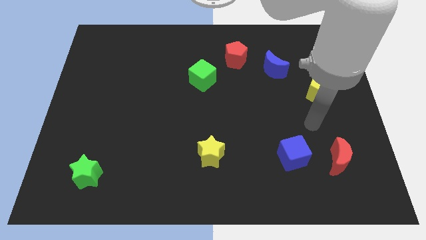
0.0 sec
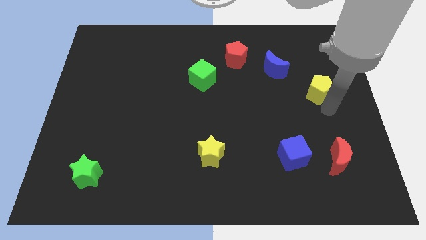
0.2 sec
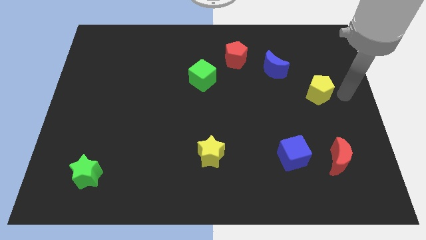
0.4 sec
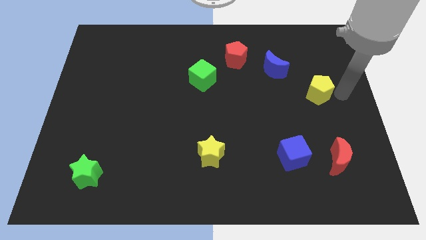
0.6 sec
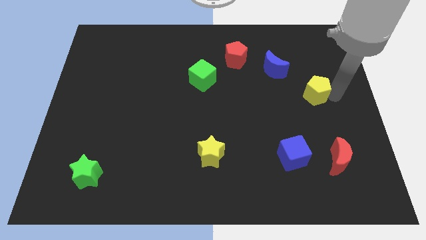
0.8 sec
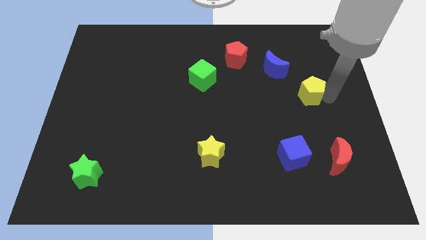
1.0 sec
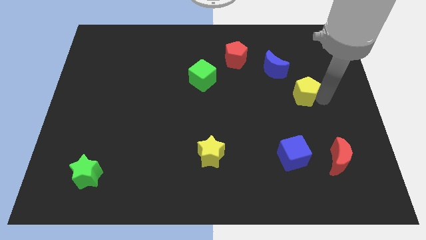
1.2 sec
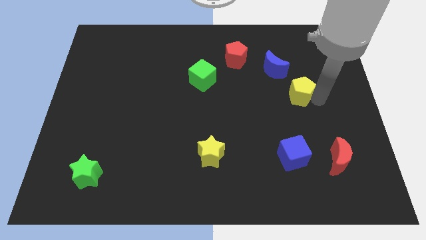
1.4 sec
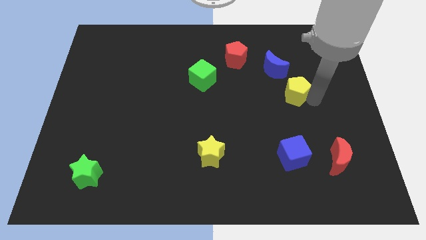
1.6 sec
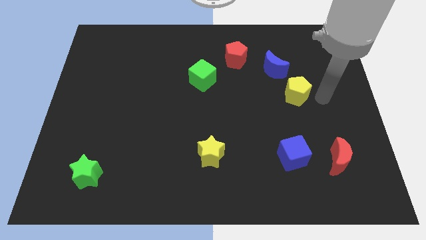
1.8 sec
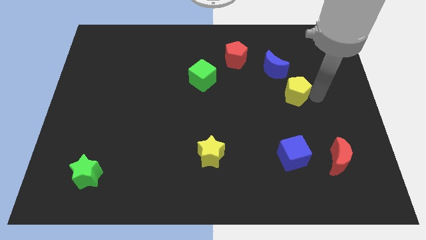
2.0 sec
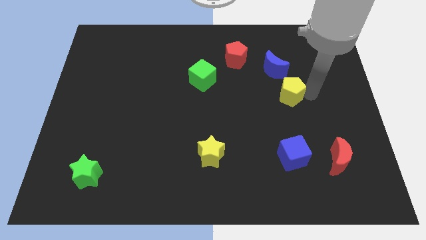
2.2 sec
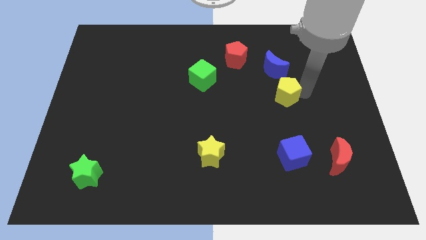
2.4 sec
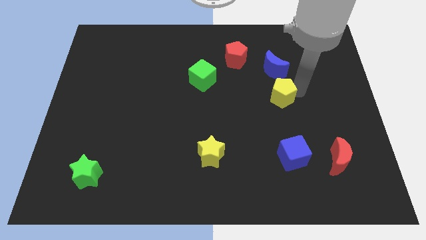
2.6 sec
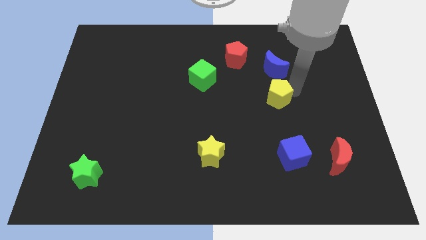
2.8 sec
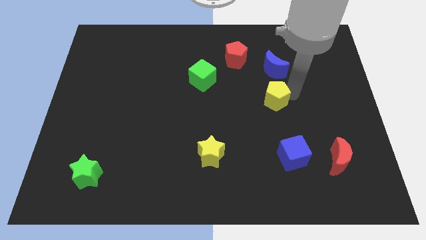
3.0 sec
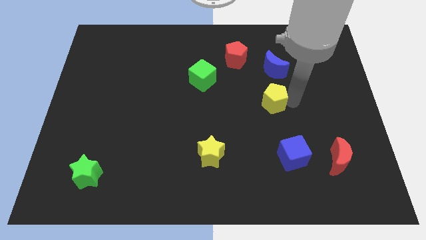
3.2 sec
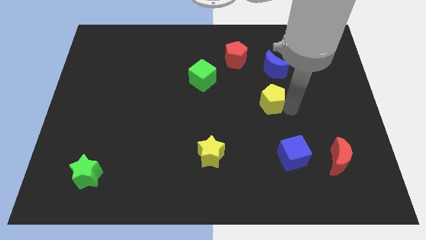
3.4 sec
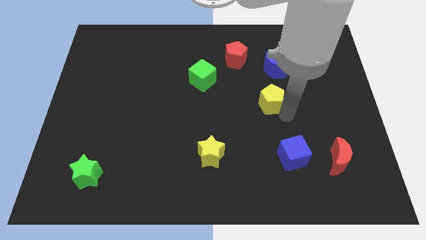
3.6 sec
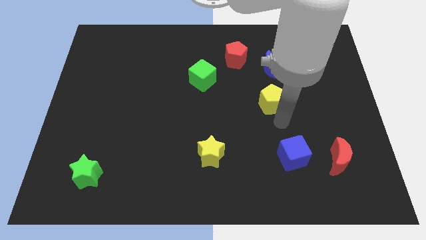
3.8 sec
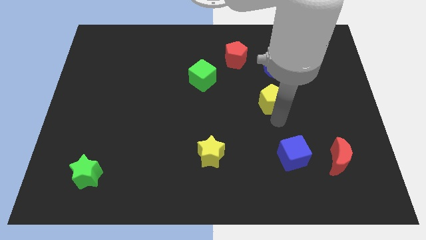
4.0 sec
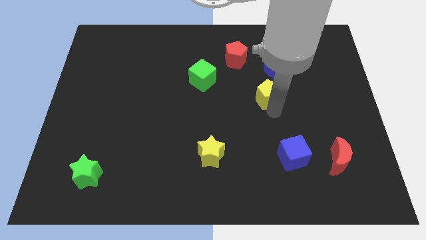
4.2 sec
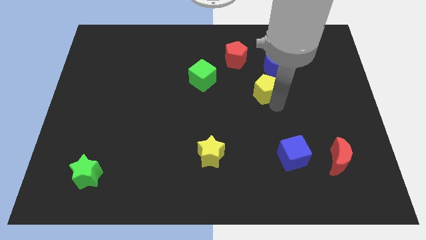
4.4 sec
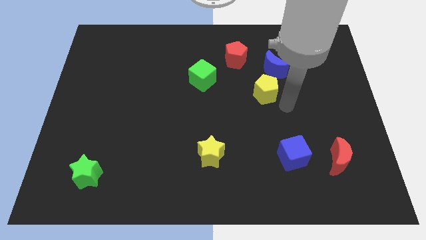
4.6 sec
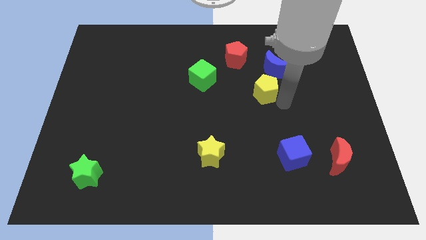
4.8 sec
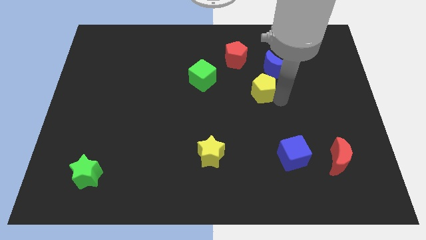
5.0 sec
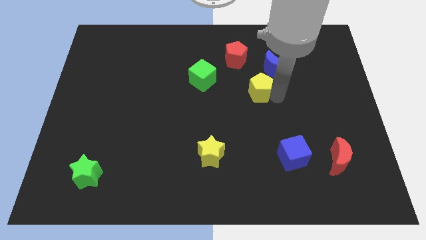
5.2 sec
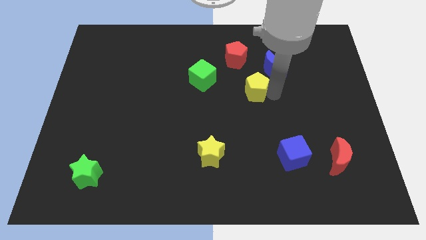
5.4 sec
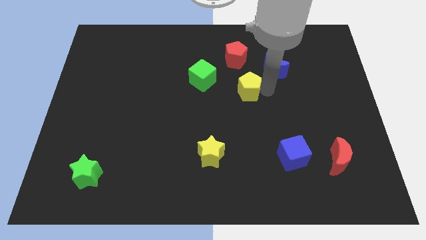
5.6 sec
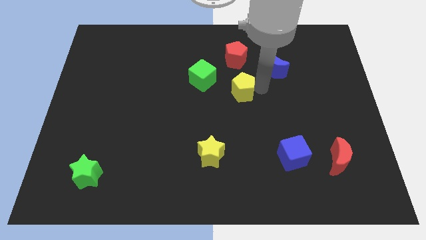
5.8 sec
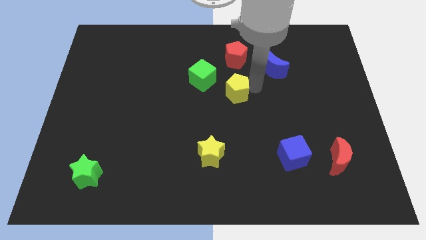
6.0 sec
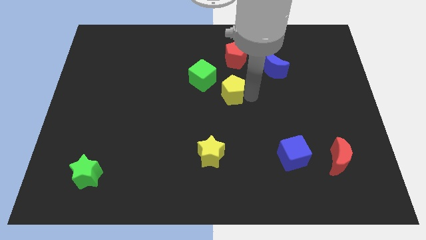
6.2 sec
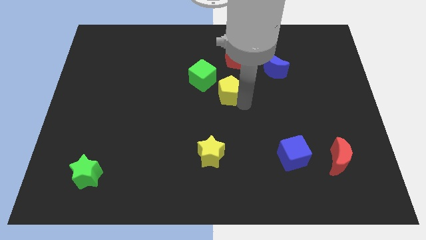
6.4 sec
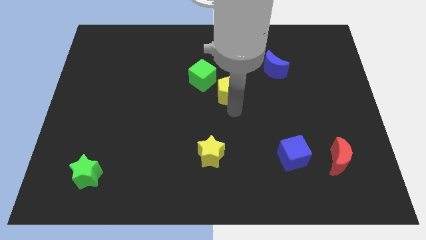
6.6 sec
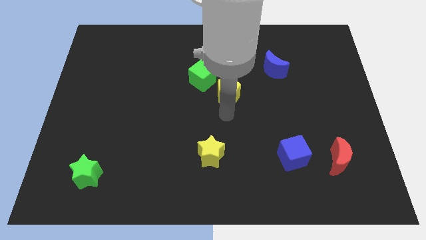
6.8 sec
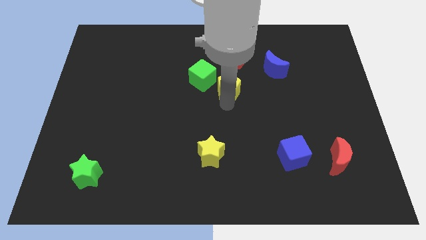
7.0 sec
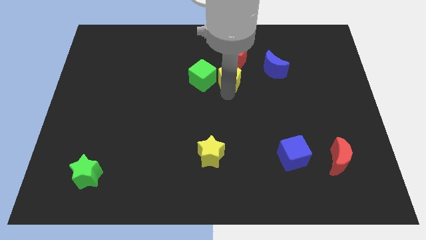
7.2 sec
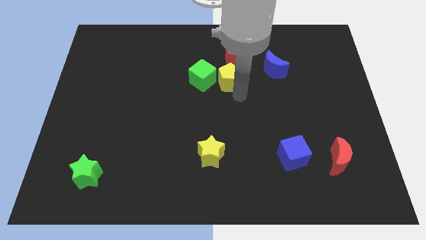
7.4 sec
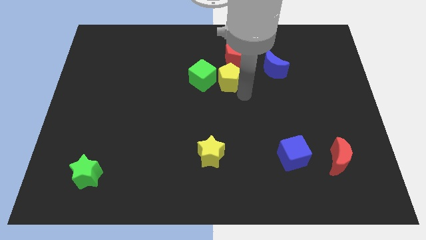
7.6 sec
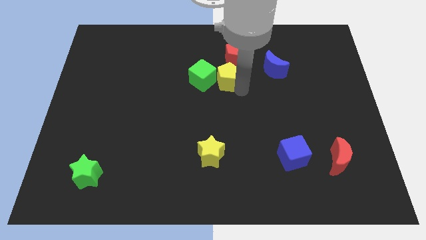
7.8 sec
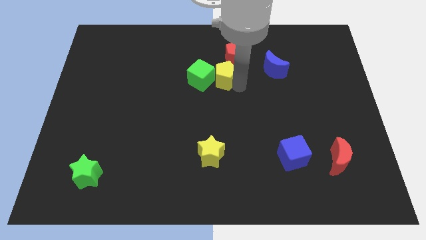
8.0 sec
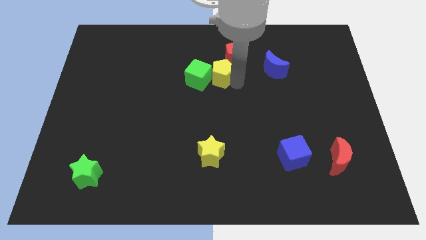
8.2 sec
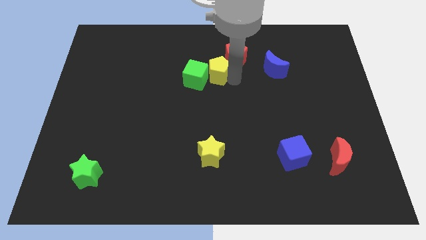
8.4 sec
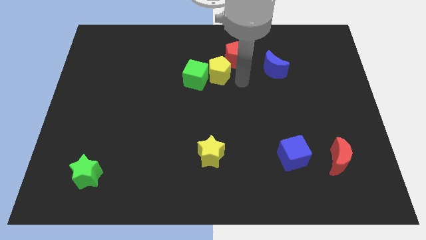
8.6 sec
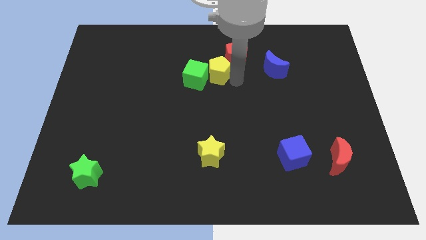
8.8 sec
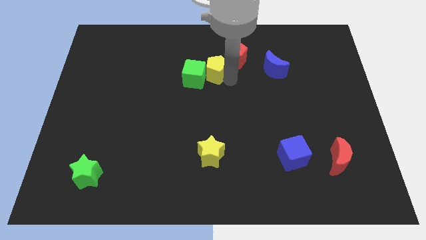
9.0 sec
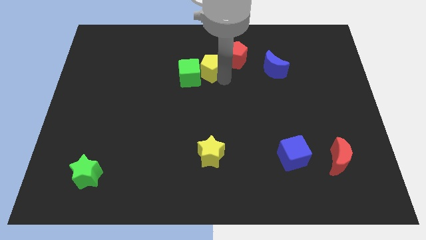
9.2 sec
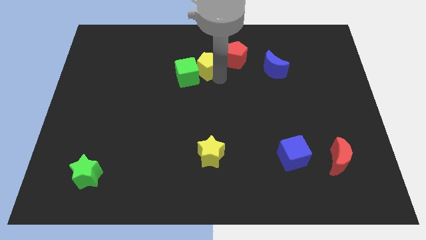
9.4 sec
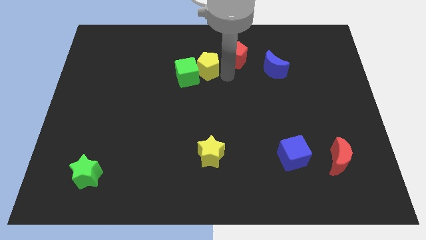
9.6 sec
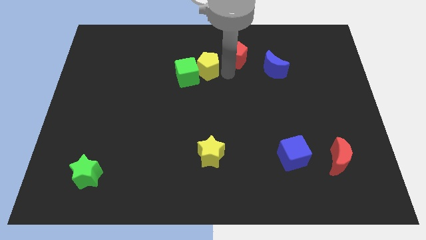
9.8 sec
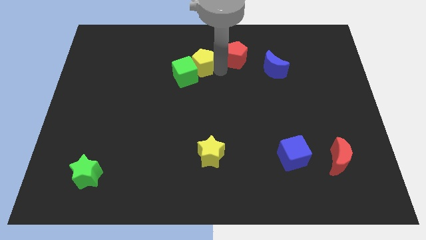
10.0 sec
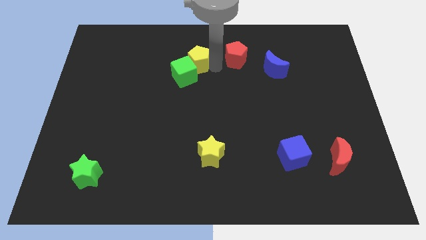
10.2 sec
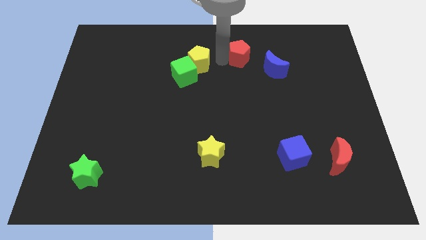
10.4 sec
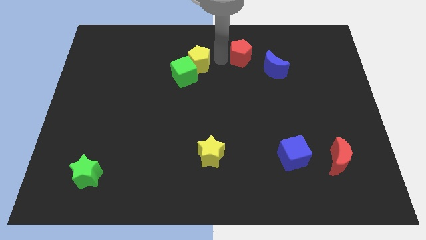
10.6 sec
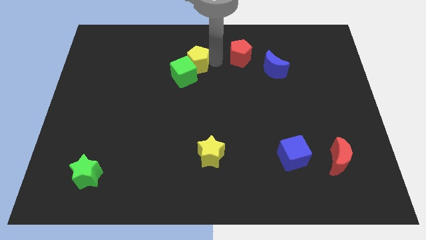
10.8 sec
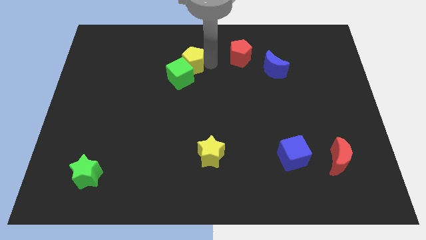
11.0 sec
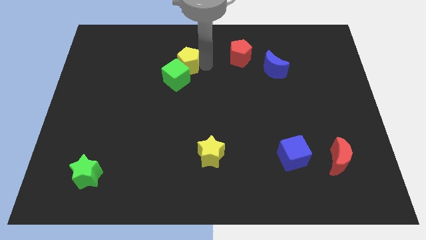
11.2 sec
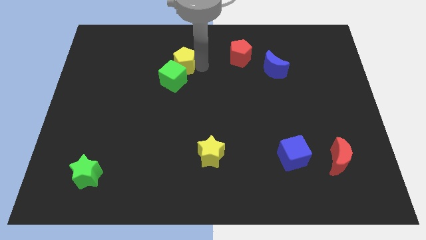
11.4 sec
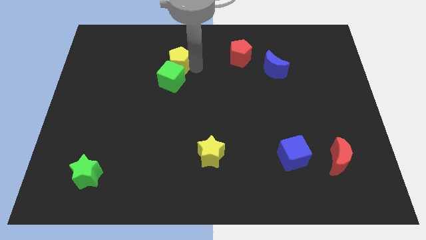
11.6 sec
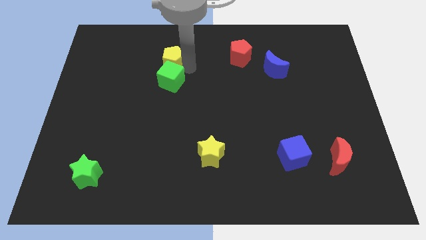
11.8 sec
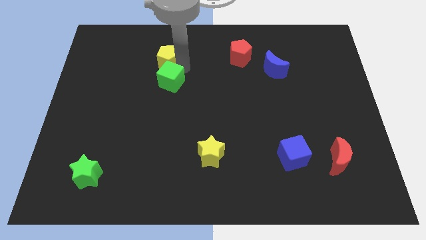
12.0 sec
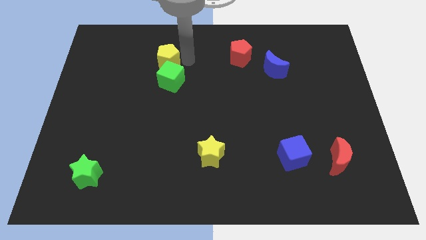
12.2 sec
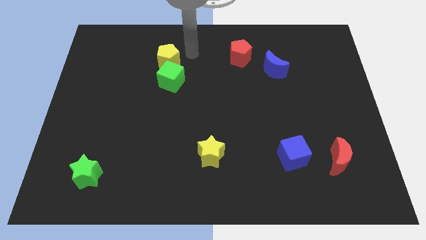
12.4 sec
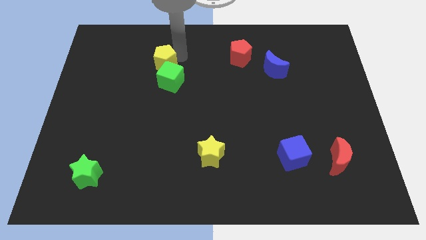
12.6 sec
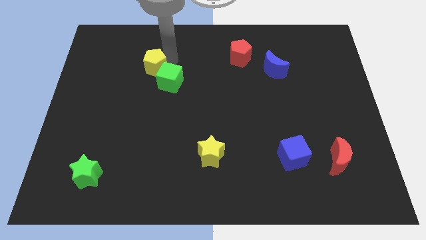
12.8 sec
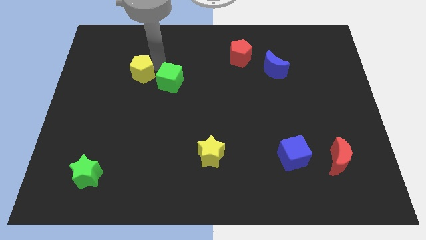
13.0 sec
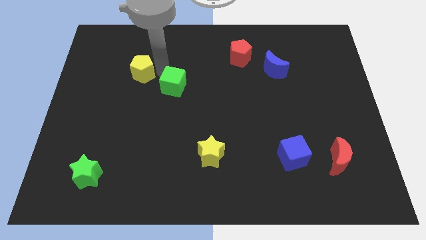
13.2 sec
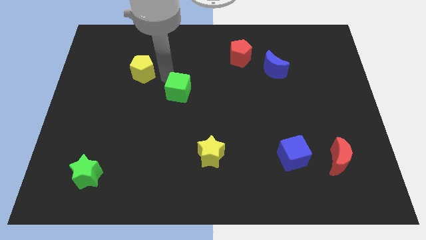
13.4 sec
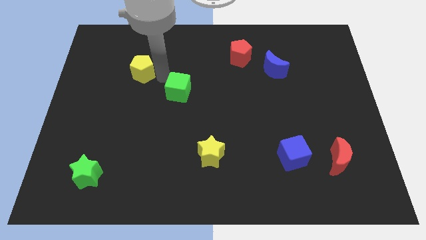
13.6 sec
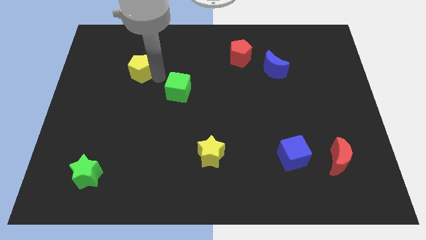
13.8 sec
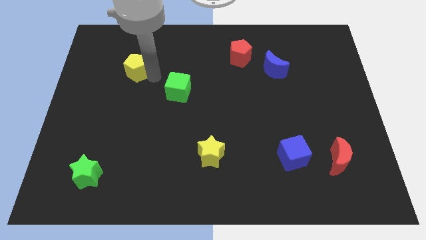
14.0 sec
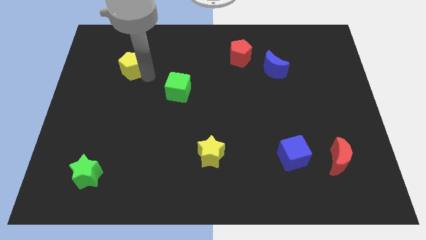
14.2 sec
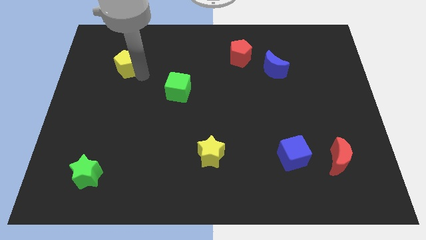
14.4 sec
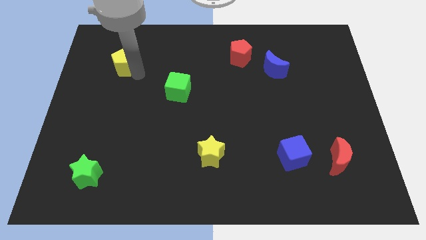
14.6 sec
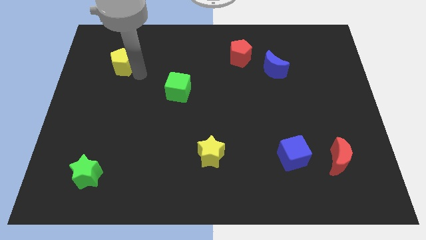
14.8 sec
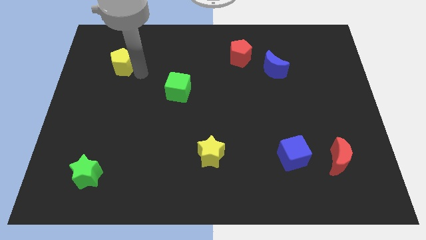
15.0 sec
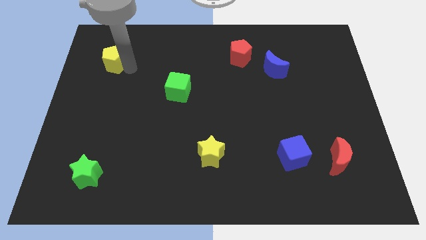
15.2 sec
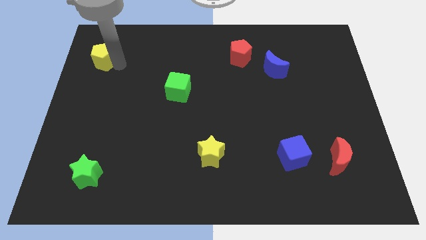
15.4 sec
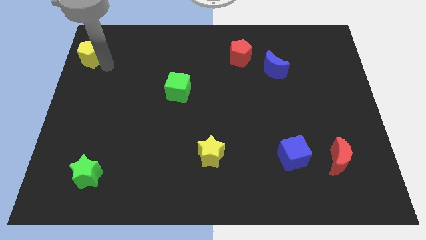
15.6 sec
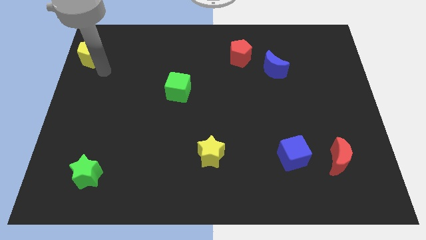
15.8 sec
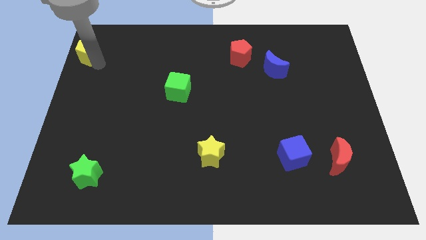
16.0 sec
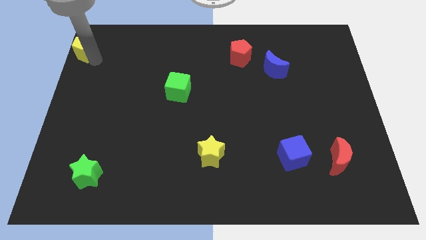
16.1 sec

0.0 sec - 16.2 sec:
slide the yellow pentagon to the upper left corner
